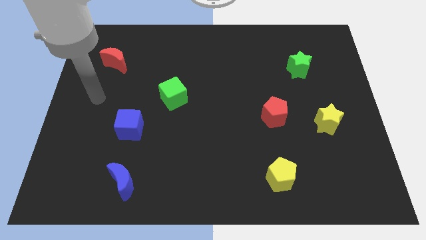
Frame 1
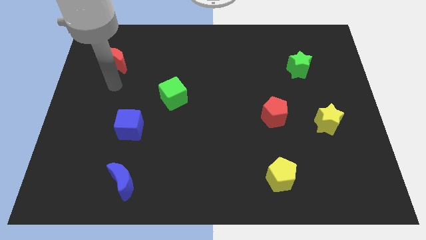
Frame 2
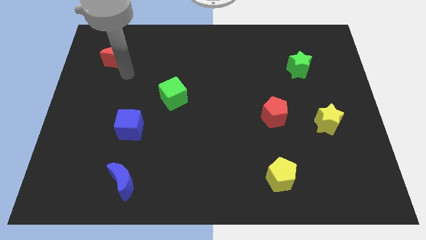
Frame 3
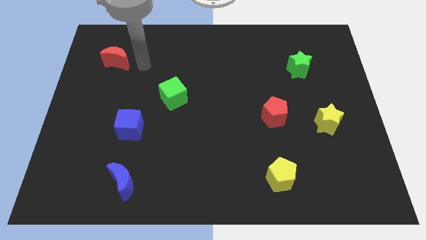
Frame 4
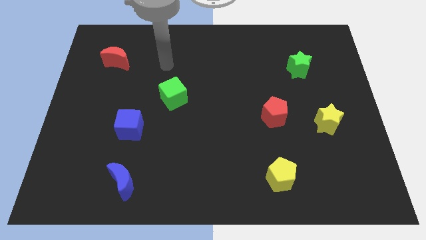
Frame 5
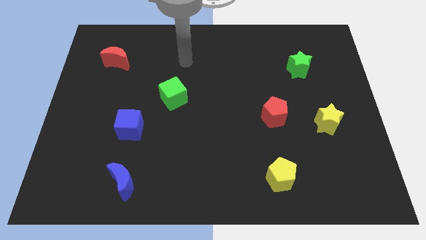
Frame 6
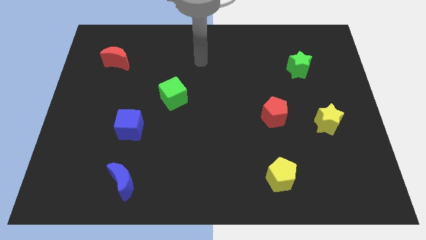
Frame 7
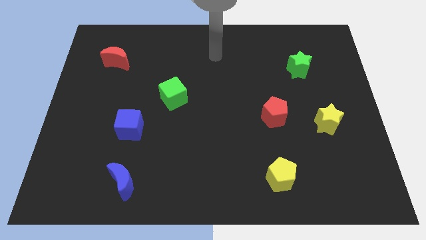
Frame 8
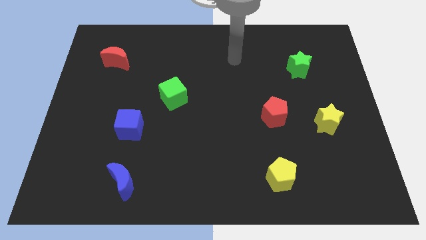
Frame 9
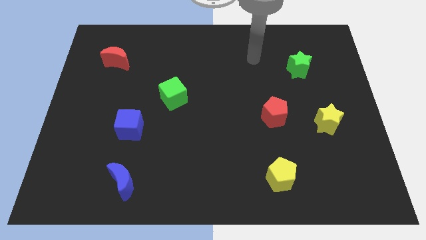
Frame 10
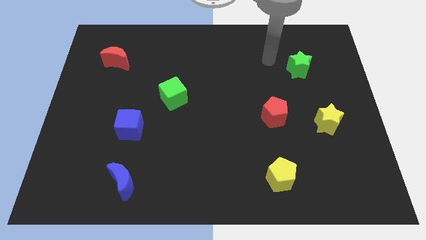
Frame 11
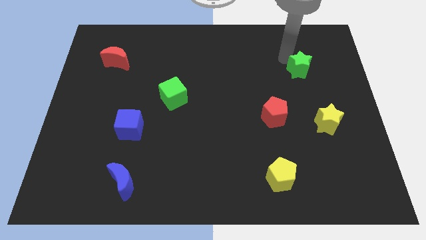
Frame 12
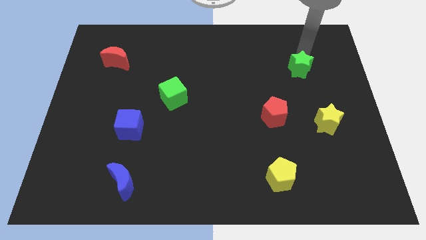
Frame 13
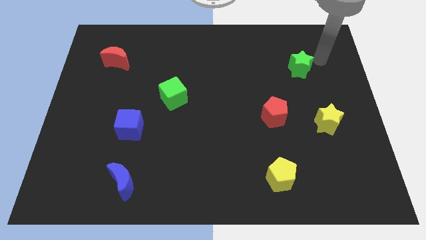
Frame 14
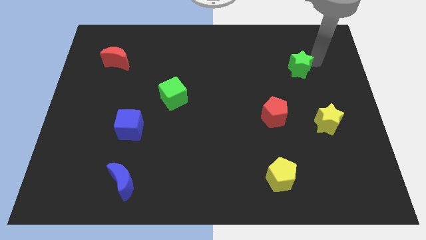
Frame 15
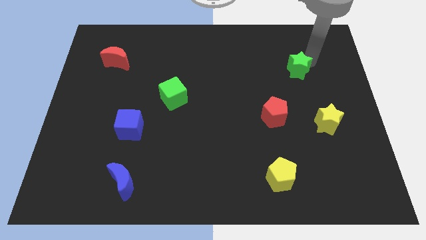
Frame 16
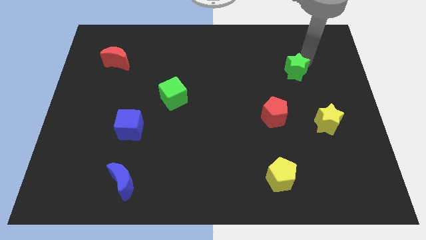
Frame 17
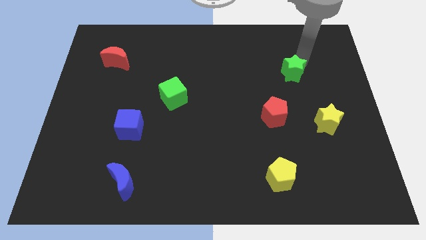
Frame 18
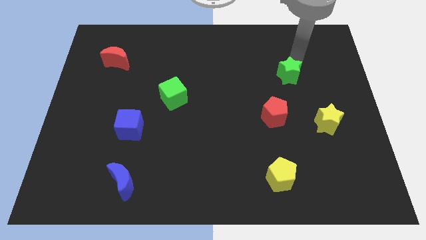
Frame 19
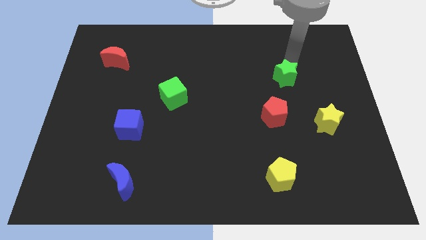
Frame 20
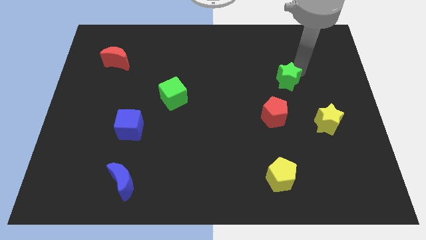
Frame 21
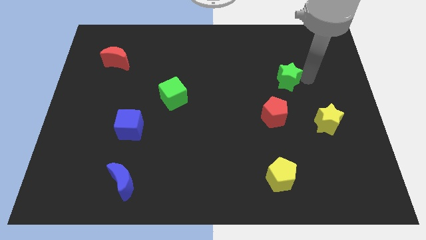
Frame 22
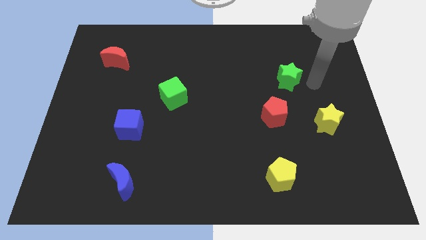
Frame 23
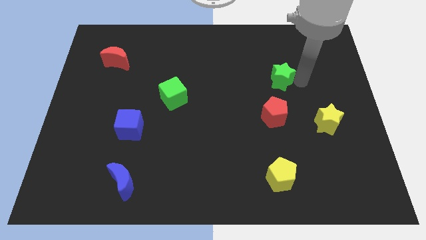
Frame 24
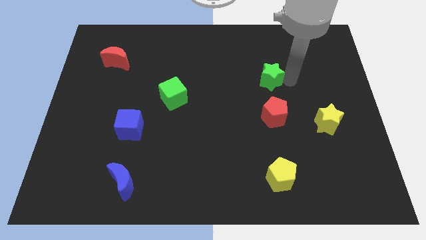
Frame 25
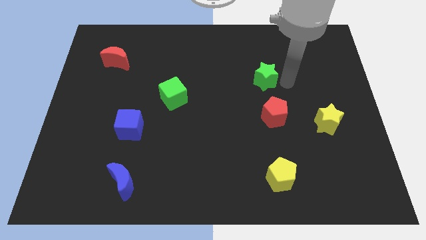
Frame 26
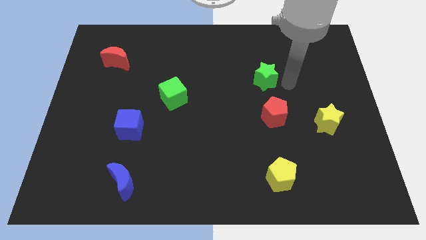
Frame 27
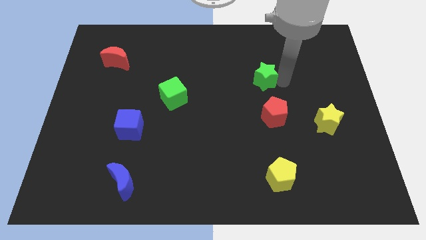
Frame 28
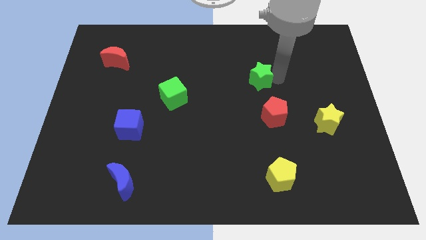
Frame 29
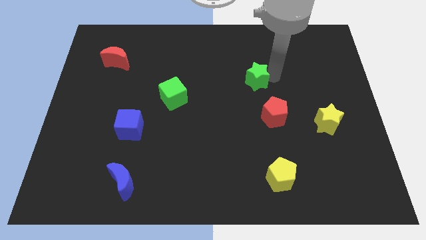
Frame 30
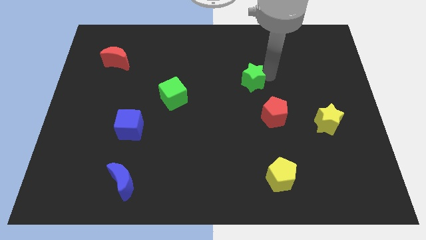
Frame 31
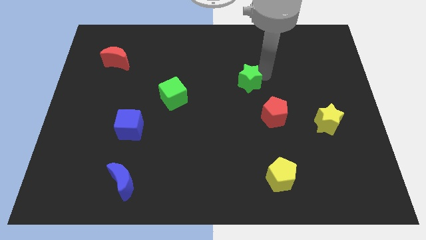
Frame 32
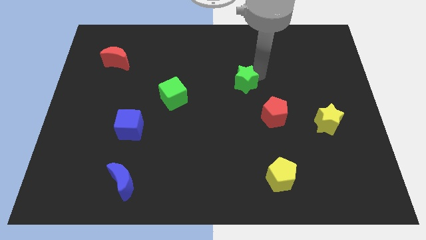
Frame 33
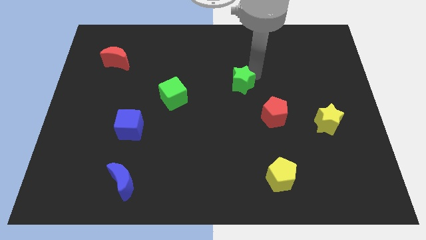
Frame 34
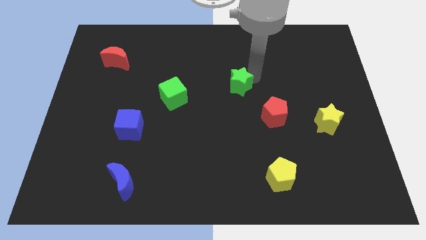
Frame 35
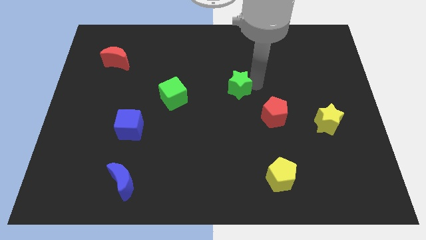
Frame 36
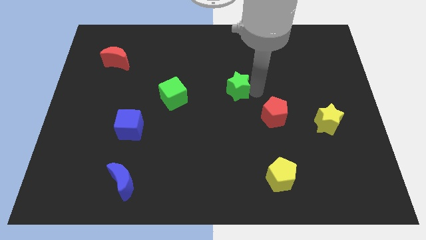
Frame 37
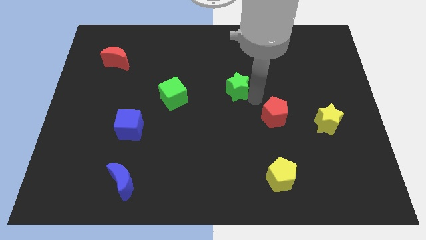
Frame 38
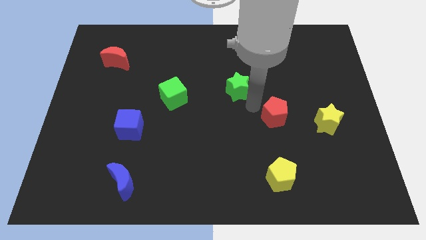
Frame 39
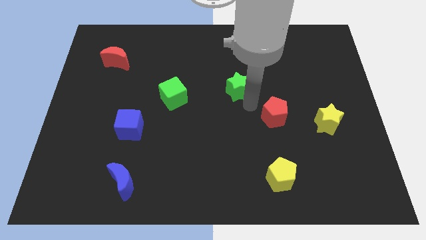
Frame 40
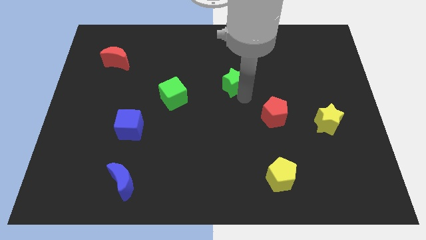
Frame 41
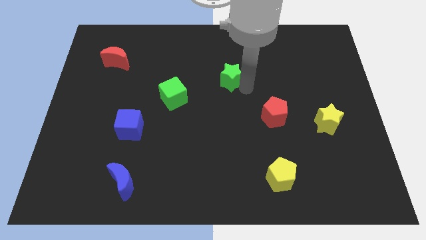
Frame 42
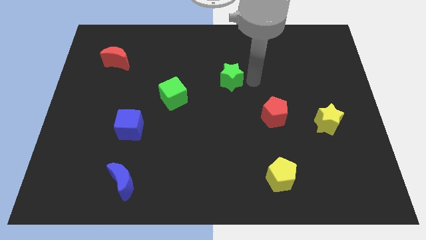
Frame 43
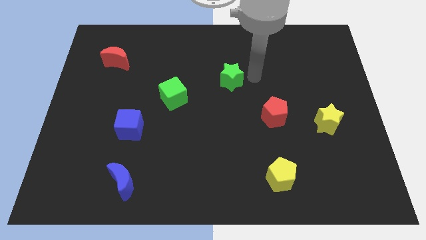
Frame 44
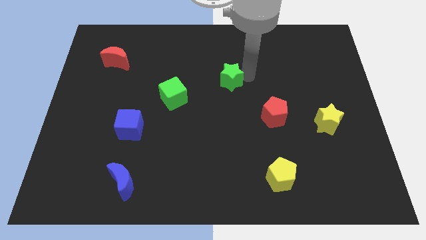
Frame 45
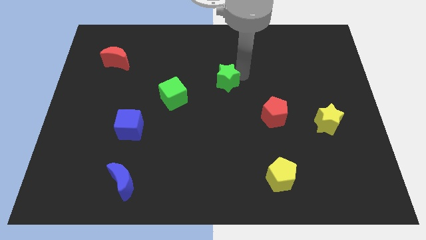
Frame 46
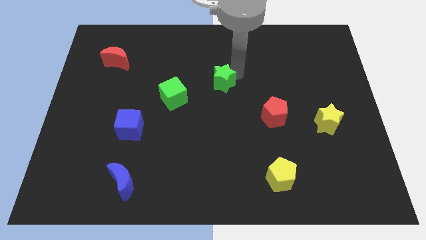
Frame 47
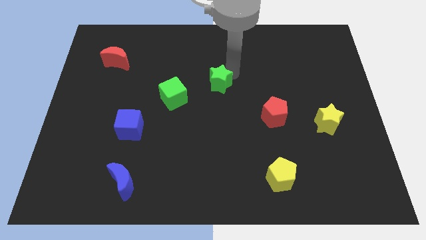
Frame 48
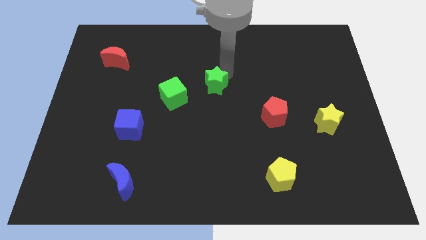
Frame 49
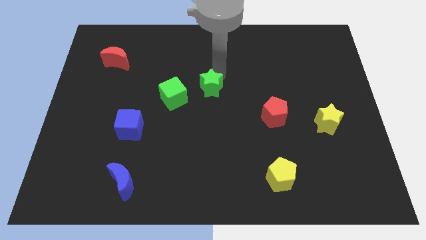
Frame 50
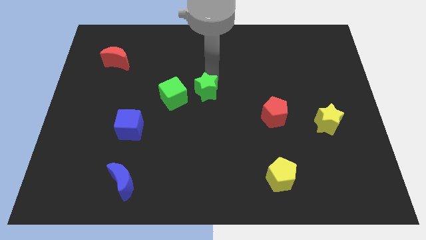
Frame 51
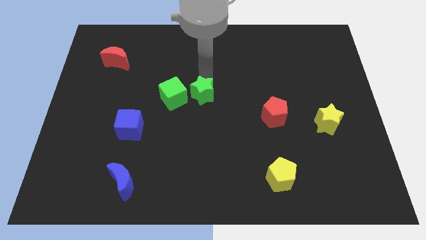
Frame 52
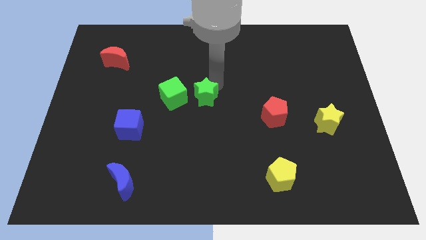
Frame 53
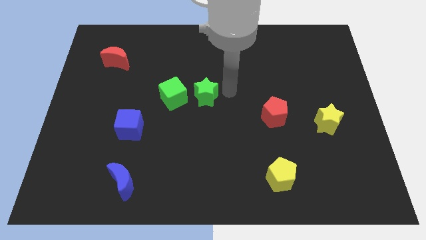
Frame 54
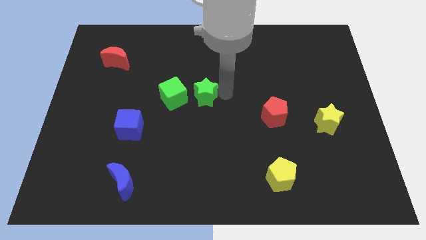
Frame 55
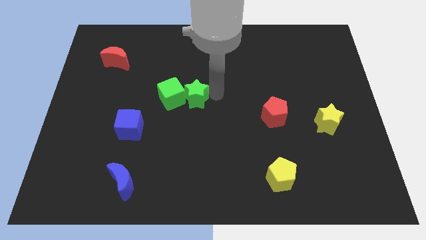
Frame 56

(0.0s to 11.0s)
slide the green star close to the green cube

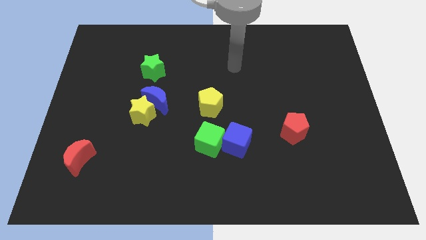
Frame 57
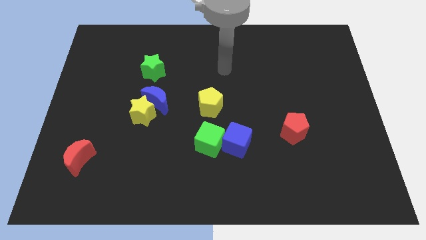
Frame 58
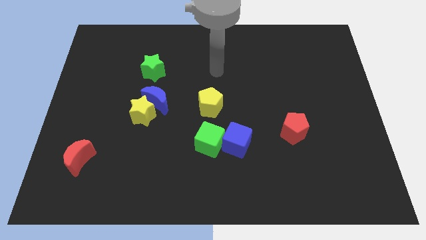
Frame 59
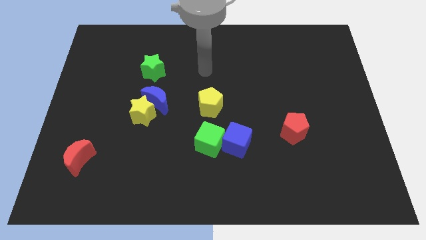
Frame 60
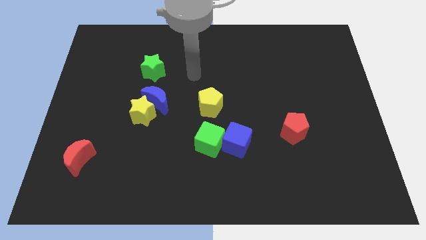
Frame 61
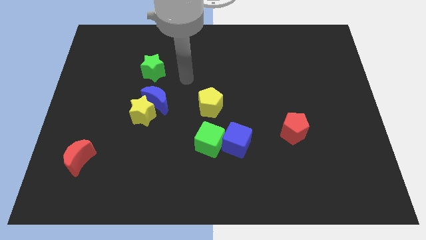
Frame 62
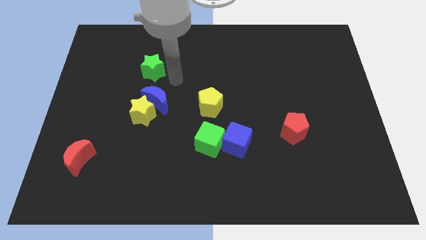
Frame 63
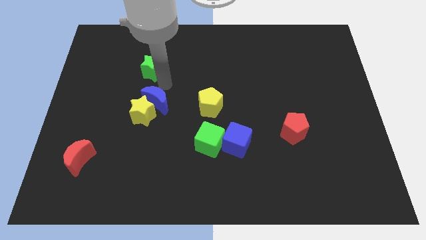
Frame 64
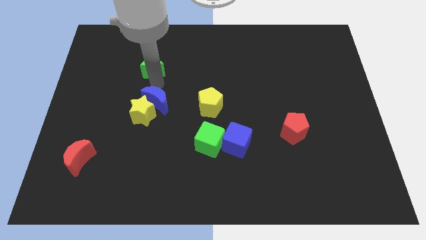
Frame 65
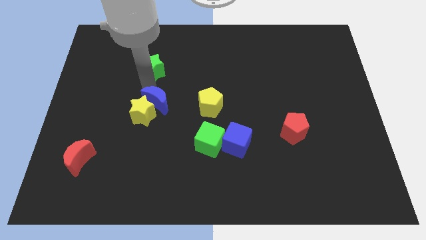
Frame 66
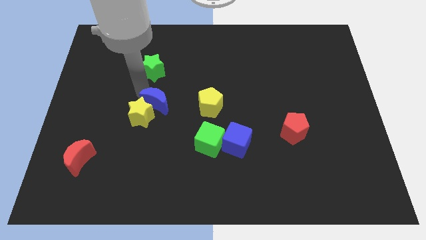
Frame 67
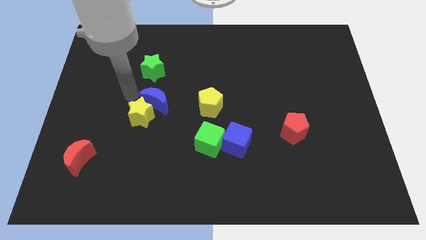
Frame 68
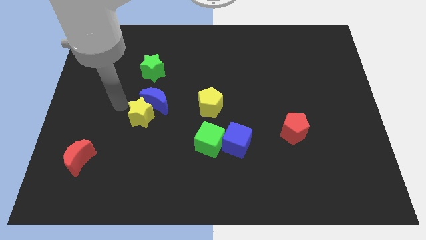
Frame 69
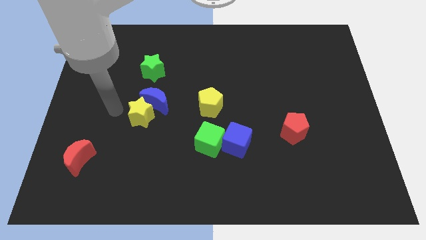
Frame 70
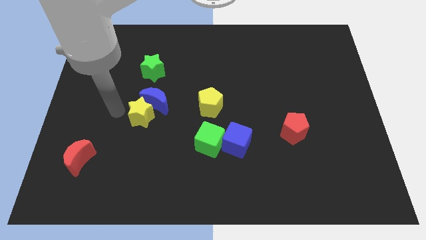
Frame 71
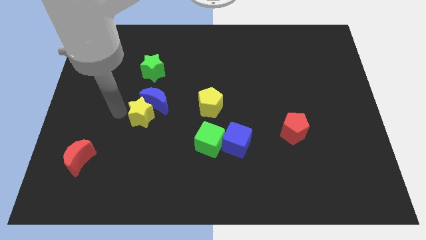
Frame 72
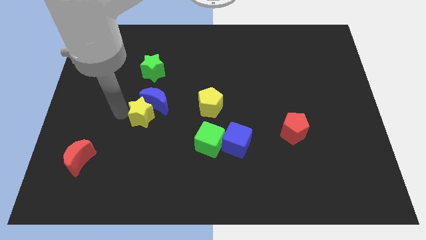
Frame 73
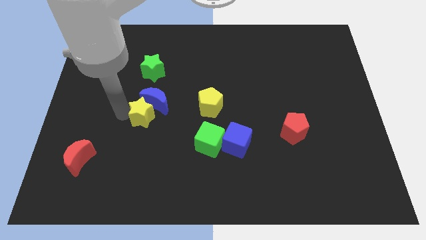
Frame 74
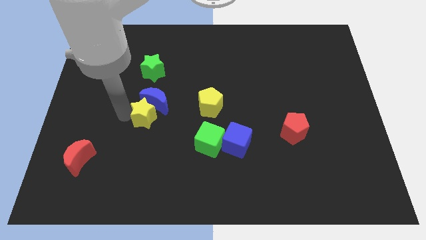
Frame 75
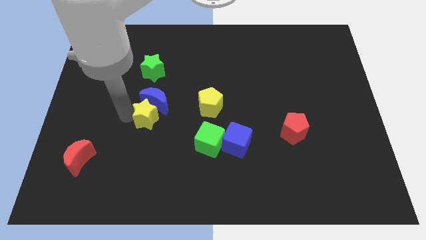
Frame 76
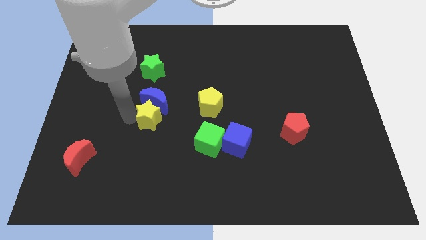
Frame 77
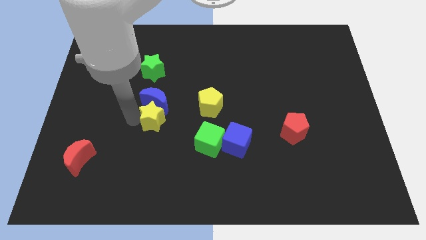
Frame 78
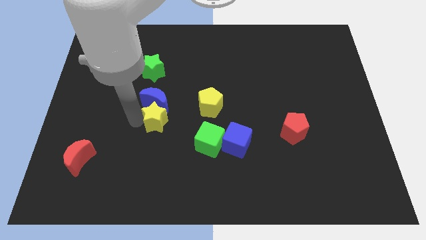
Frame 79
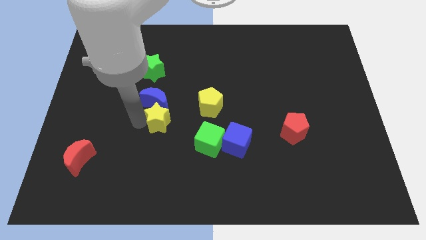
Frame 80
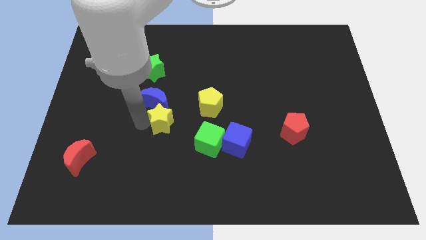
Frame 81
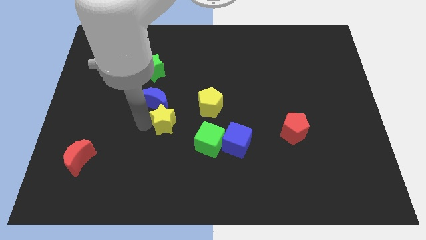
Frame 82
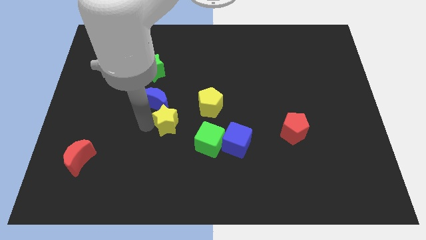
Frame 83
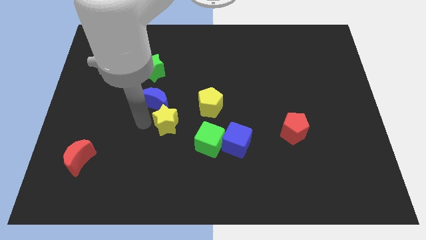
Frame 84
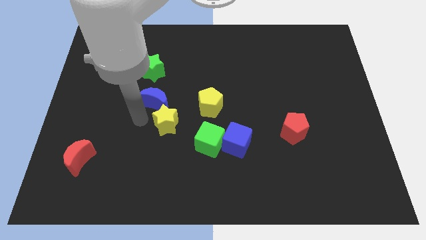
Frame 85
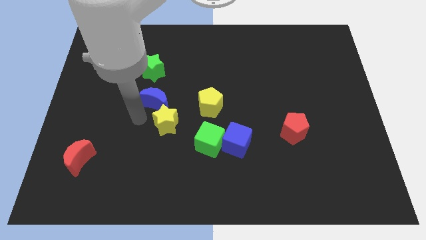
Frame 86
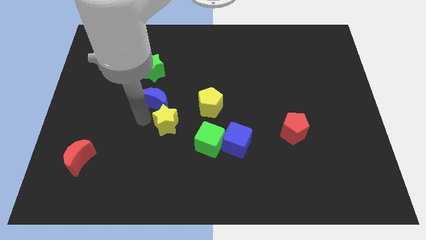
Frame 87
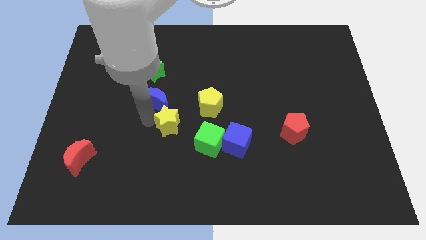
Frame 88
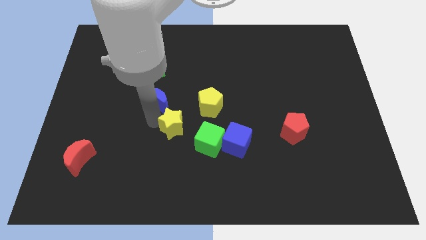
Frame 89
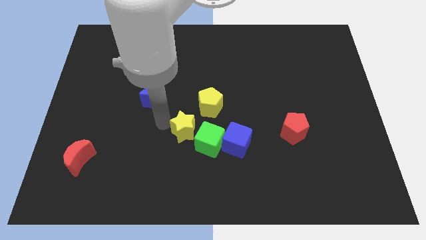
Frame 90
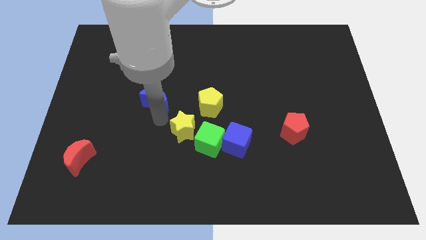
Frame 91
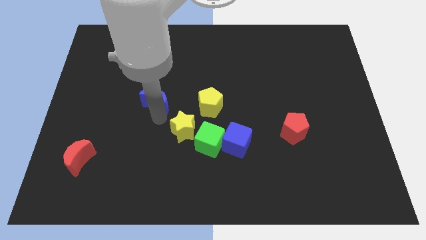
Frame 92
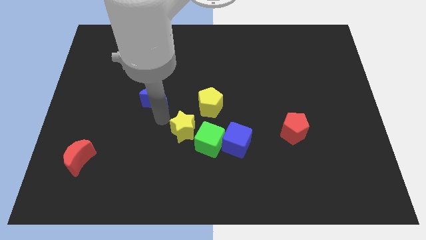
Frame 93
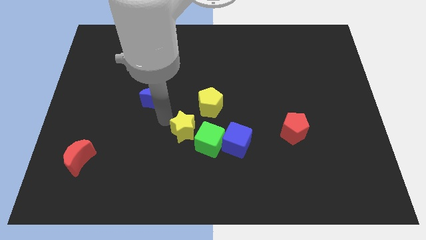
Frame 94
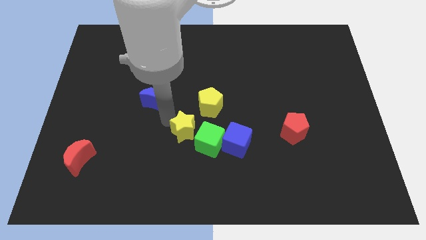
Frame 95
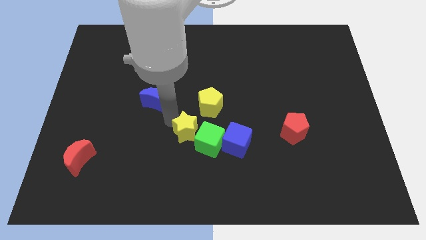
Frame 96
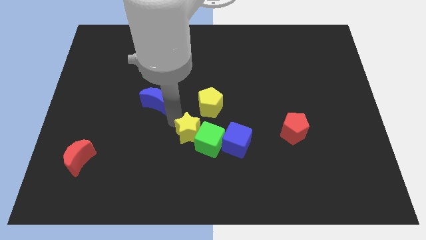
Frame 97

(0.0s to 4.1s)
move the yellow star to the green cube
